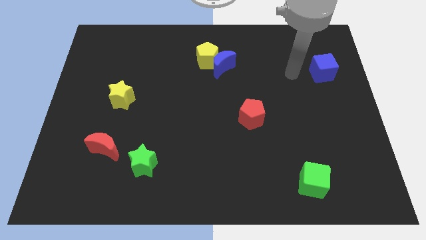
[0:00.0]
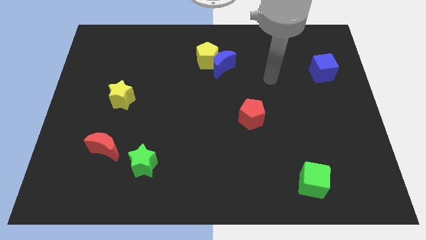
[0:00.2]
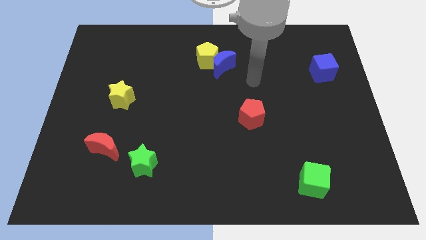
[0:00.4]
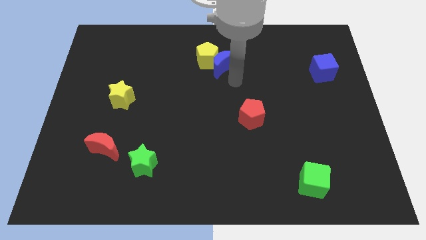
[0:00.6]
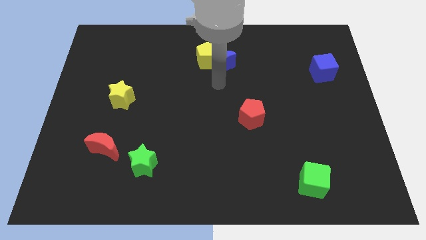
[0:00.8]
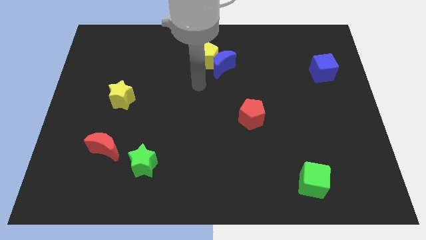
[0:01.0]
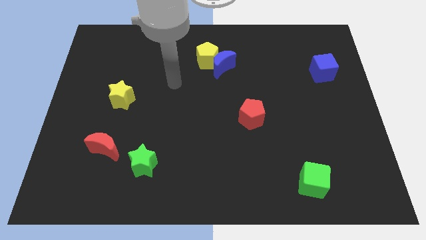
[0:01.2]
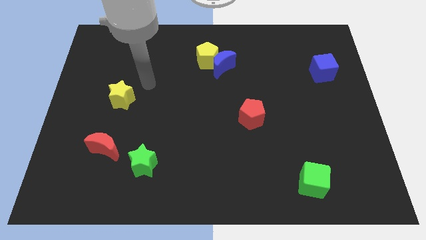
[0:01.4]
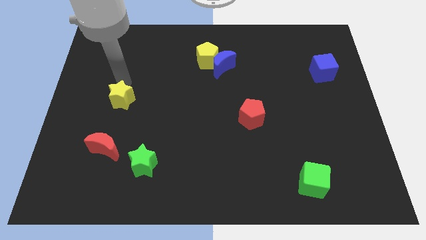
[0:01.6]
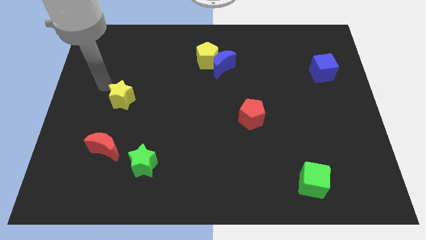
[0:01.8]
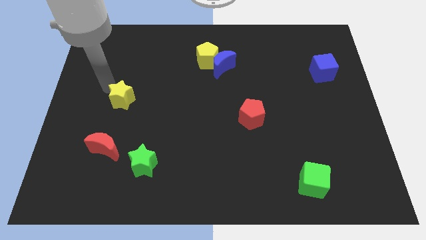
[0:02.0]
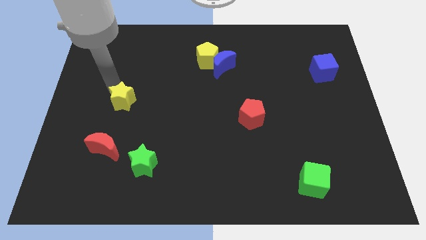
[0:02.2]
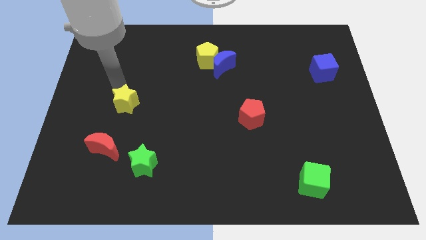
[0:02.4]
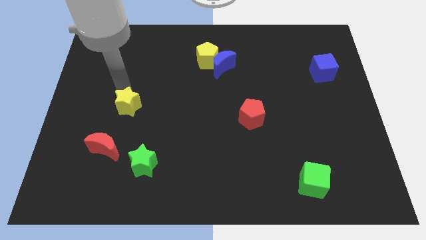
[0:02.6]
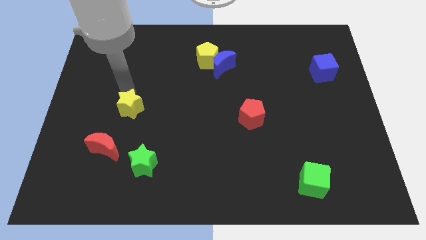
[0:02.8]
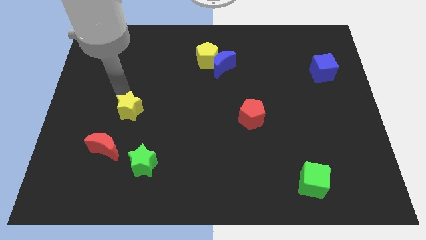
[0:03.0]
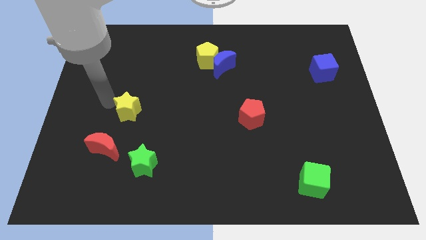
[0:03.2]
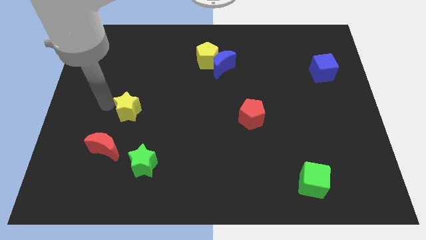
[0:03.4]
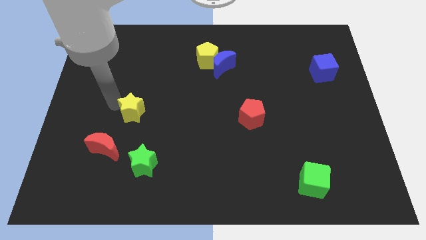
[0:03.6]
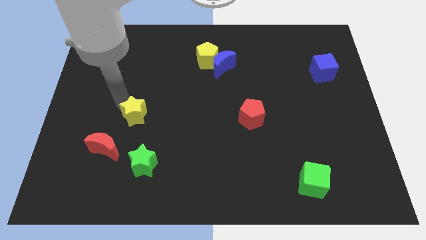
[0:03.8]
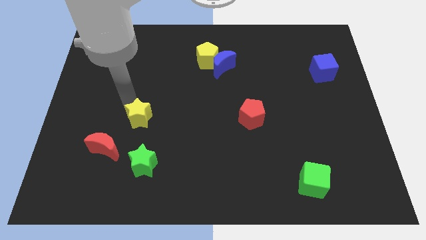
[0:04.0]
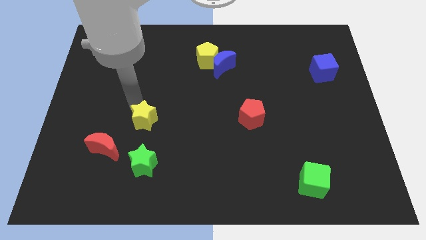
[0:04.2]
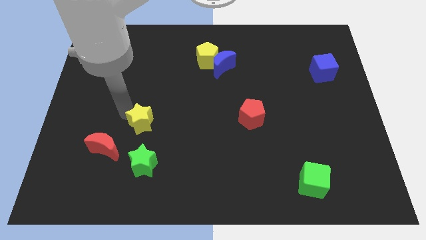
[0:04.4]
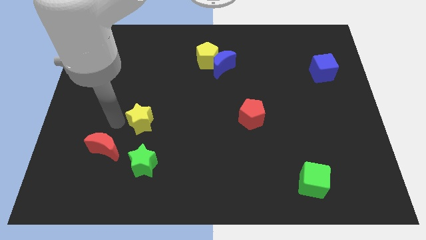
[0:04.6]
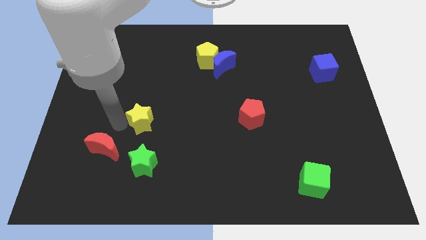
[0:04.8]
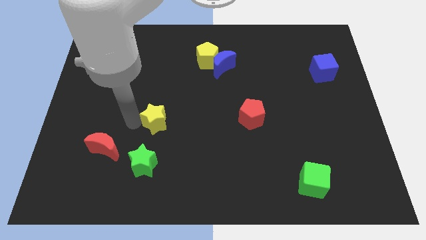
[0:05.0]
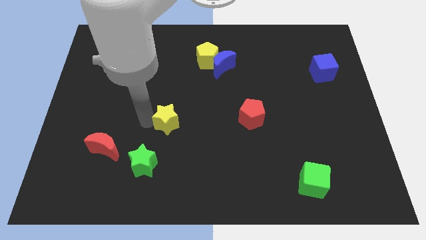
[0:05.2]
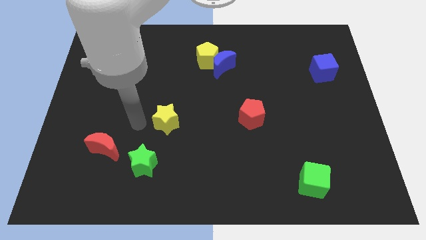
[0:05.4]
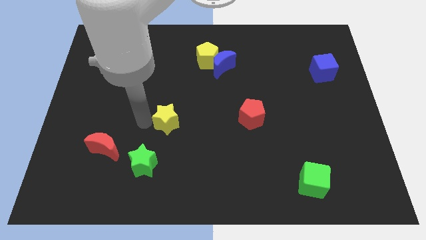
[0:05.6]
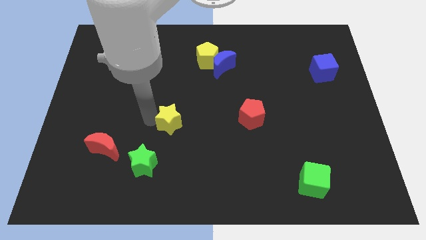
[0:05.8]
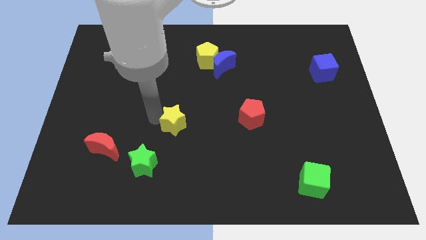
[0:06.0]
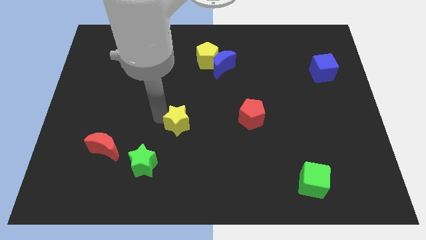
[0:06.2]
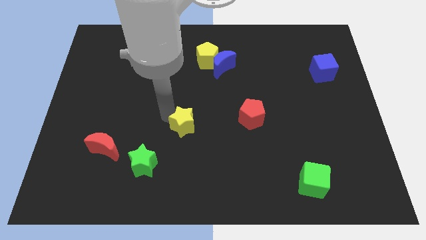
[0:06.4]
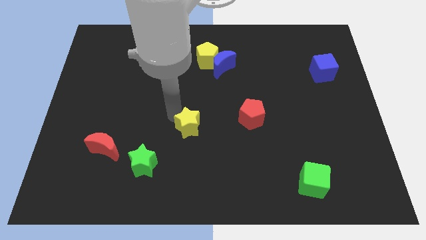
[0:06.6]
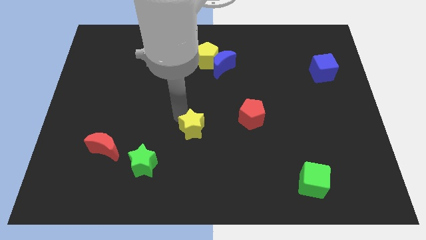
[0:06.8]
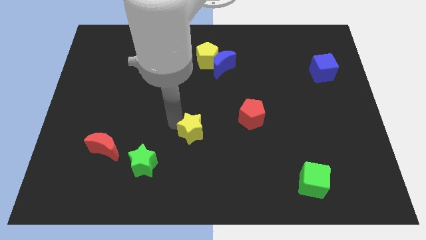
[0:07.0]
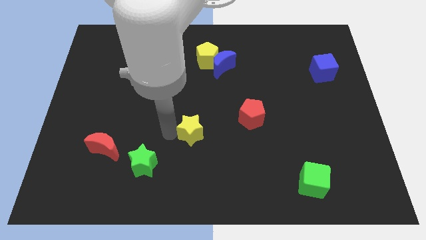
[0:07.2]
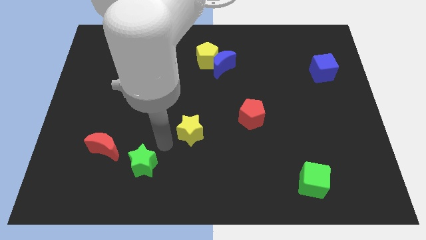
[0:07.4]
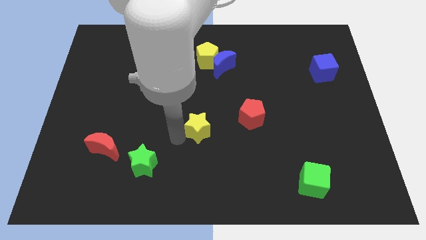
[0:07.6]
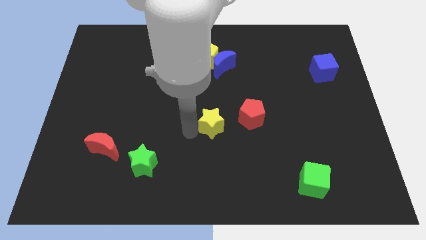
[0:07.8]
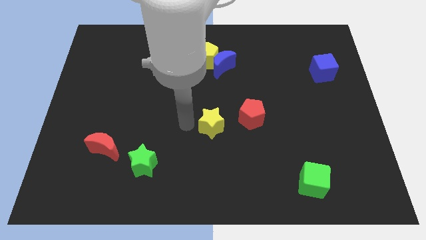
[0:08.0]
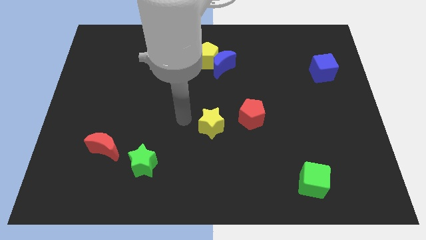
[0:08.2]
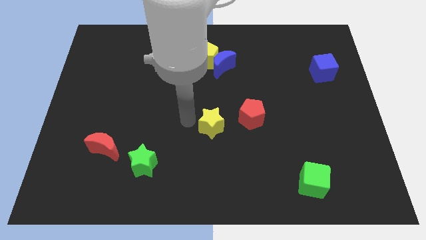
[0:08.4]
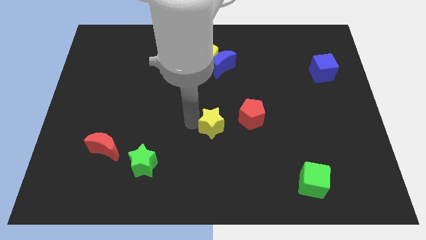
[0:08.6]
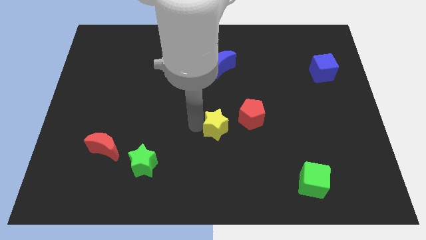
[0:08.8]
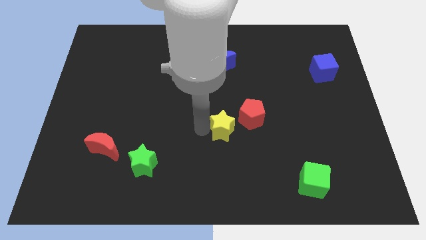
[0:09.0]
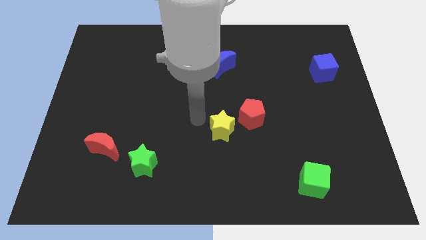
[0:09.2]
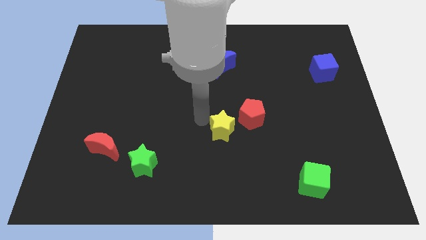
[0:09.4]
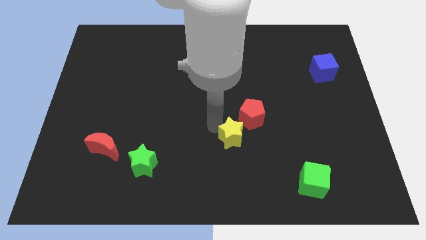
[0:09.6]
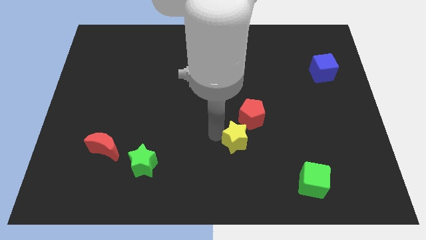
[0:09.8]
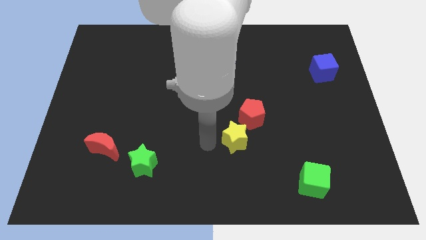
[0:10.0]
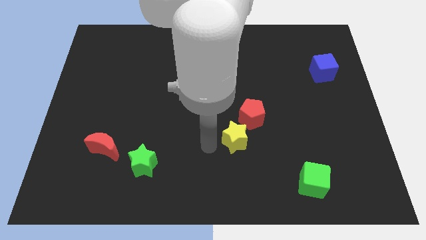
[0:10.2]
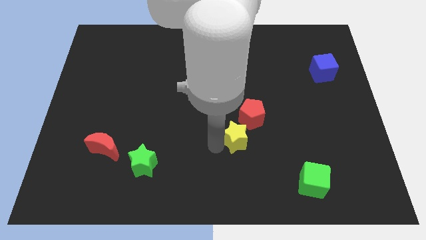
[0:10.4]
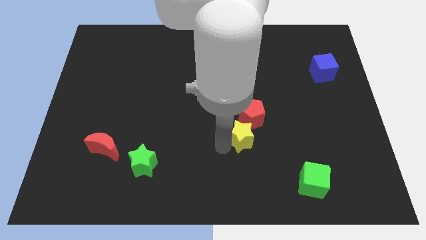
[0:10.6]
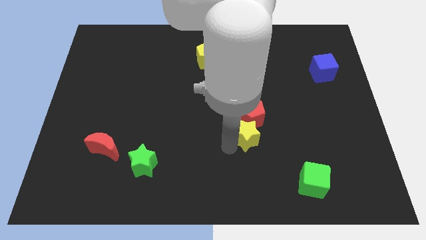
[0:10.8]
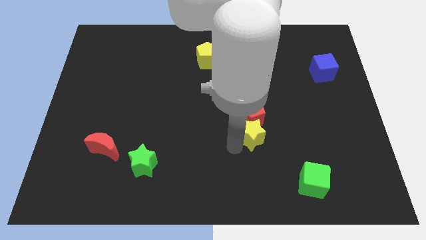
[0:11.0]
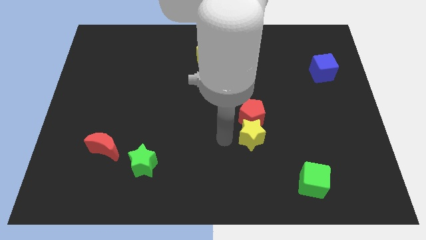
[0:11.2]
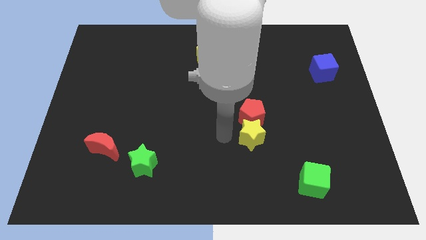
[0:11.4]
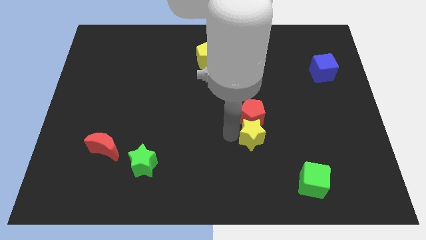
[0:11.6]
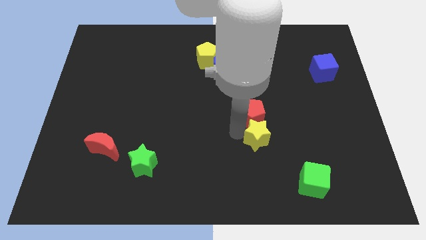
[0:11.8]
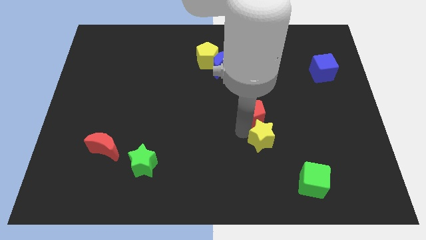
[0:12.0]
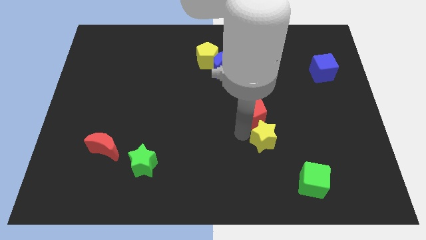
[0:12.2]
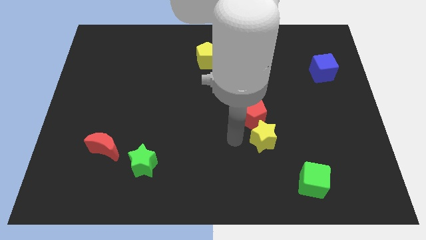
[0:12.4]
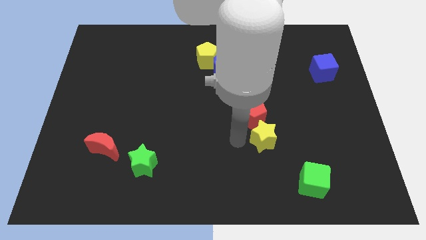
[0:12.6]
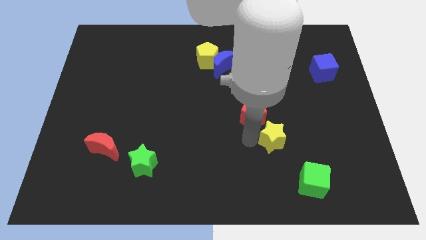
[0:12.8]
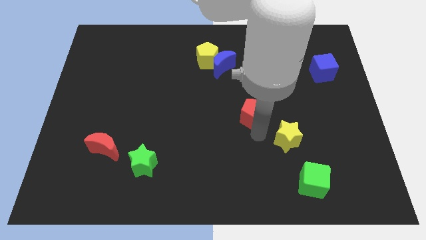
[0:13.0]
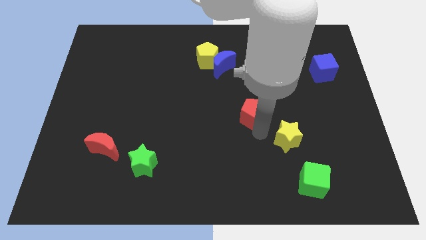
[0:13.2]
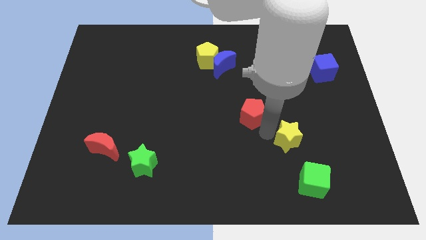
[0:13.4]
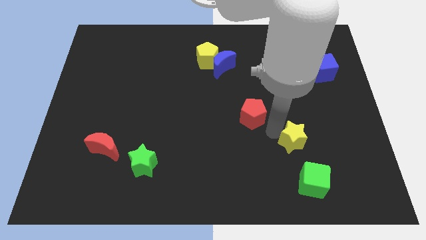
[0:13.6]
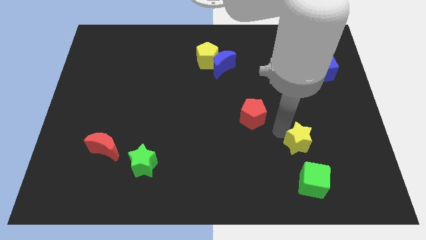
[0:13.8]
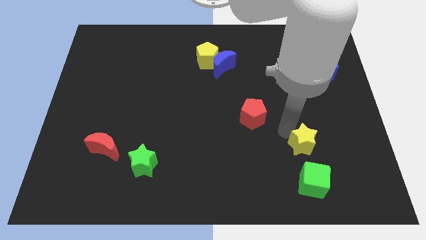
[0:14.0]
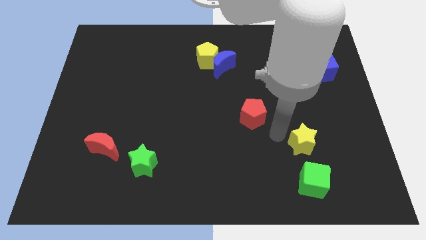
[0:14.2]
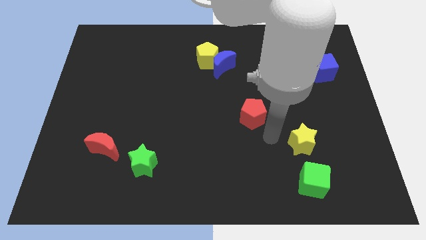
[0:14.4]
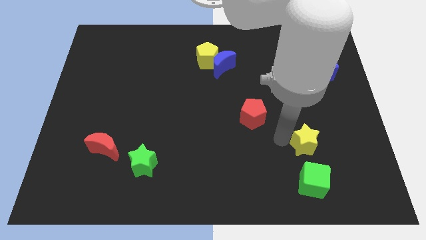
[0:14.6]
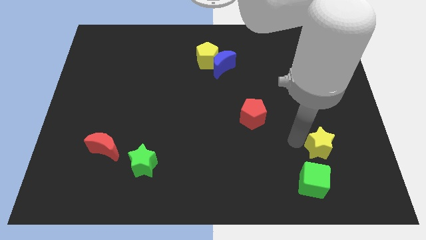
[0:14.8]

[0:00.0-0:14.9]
put the yellow star to the top right of the green cube
